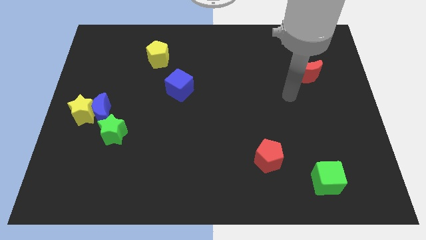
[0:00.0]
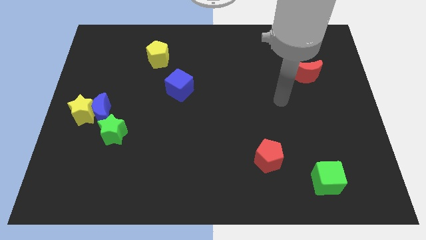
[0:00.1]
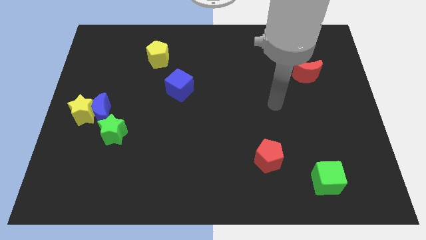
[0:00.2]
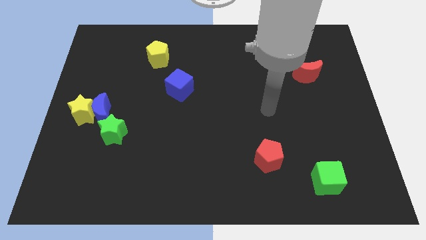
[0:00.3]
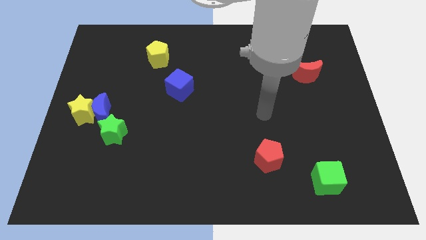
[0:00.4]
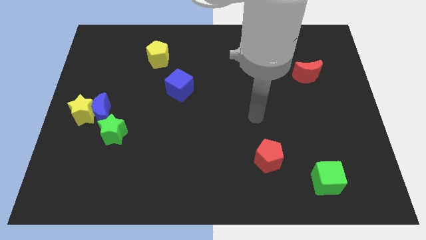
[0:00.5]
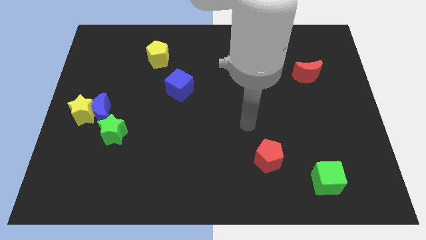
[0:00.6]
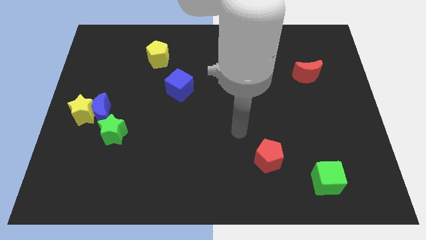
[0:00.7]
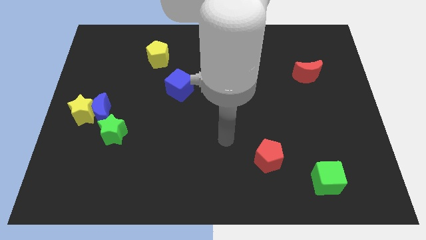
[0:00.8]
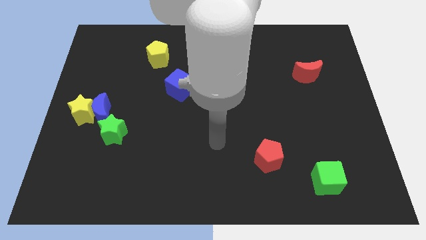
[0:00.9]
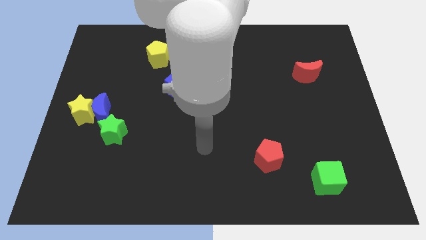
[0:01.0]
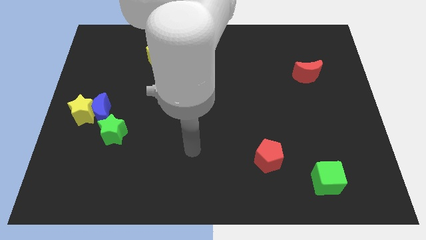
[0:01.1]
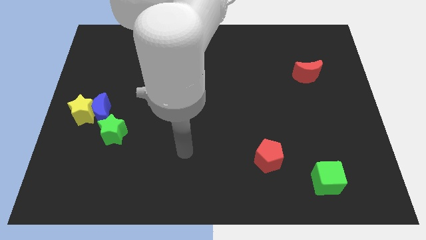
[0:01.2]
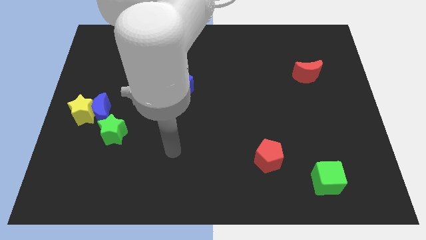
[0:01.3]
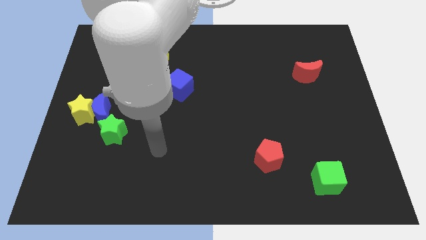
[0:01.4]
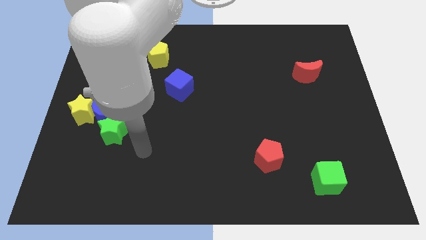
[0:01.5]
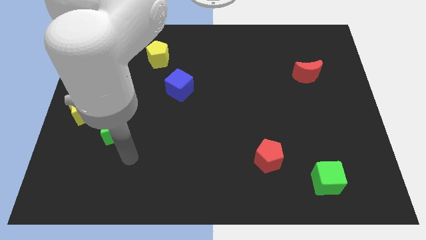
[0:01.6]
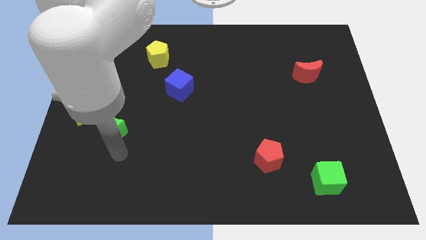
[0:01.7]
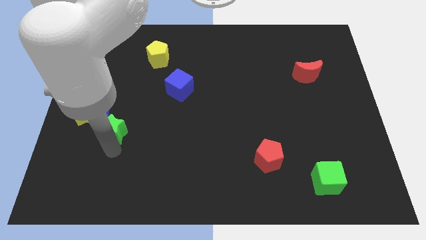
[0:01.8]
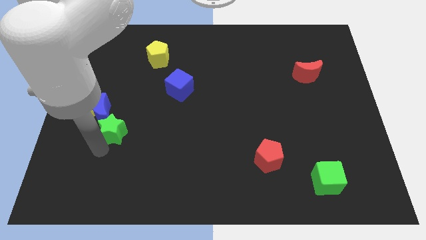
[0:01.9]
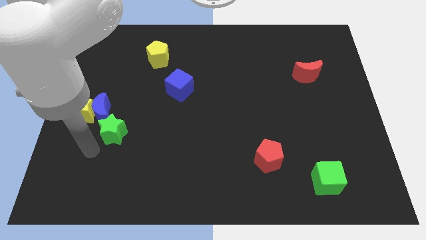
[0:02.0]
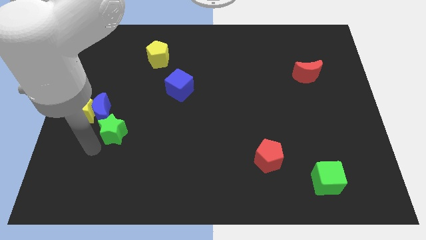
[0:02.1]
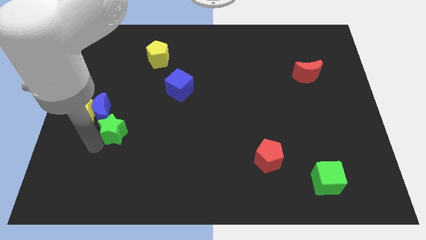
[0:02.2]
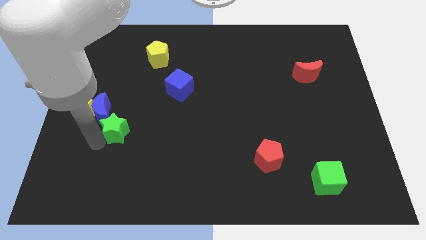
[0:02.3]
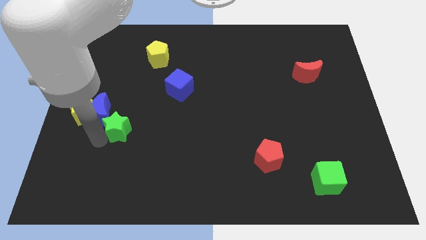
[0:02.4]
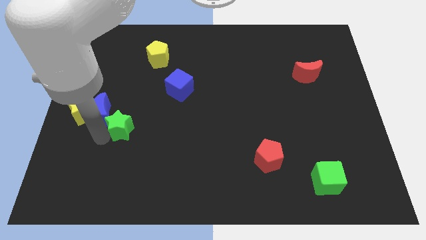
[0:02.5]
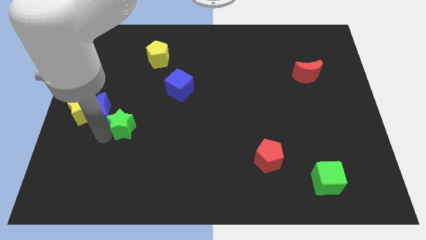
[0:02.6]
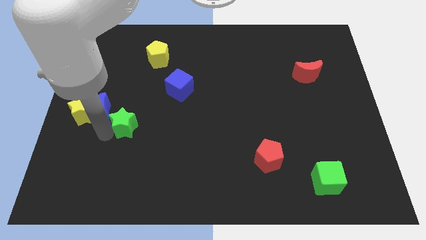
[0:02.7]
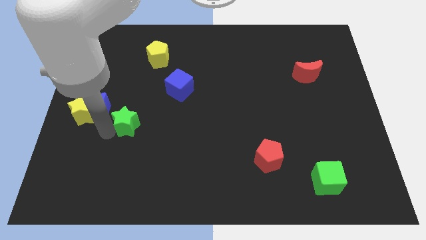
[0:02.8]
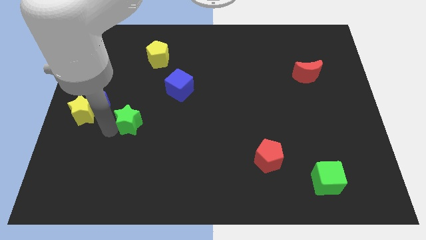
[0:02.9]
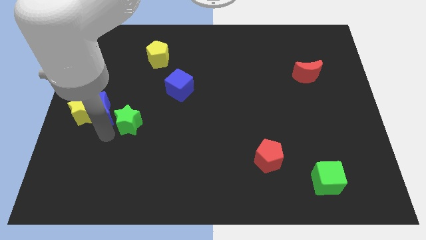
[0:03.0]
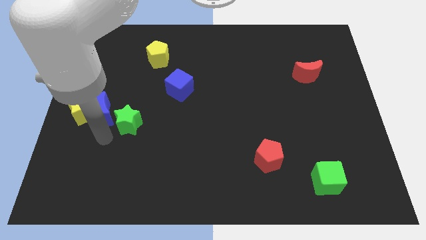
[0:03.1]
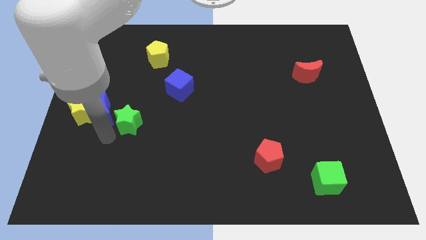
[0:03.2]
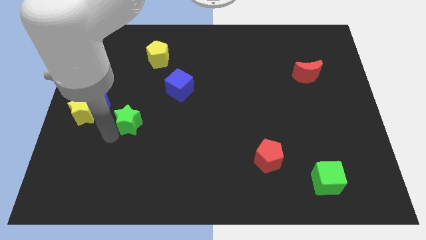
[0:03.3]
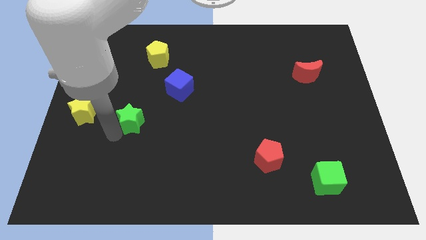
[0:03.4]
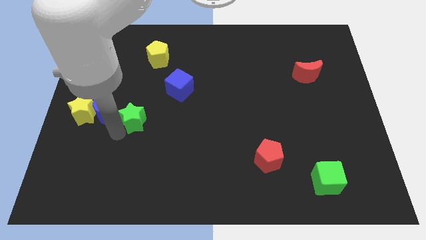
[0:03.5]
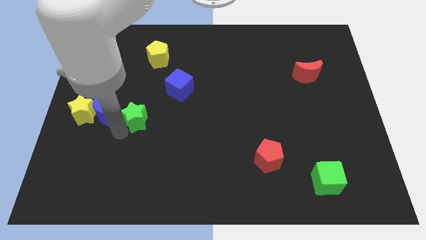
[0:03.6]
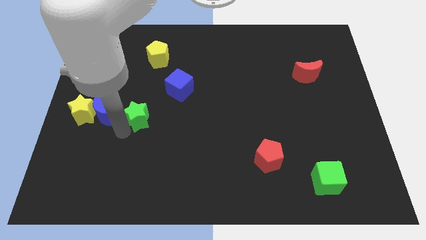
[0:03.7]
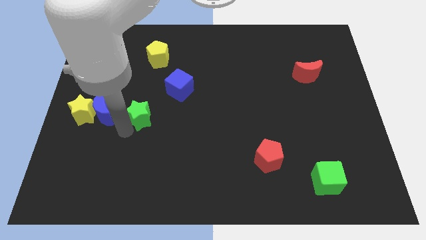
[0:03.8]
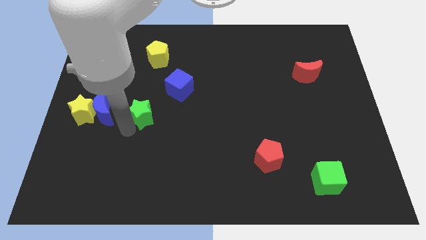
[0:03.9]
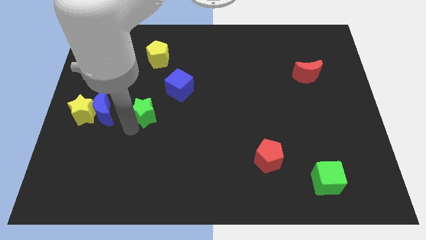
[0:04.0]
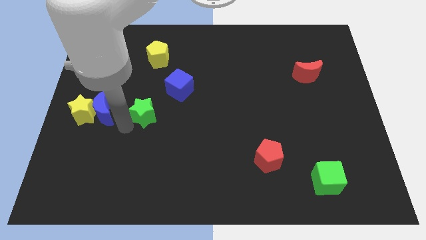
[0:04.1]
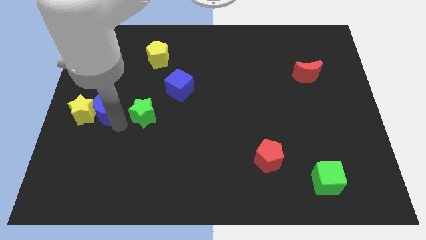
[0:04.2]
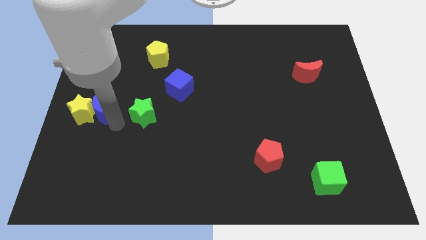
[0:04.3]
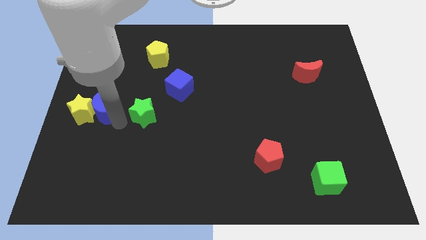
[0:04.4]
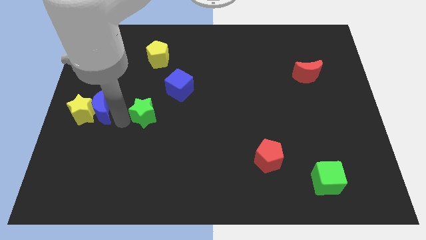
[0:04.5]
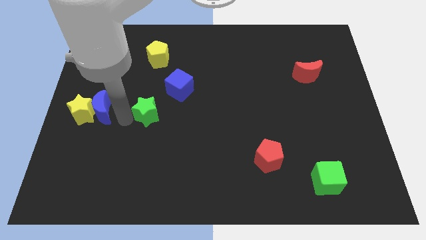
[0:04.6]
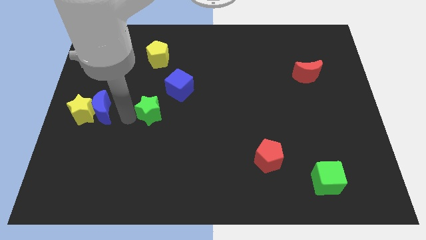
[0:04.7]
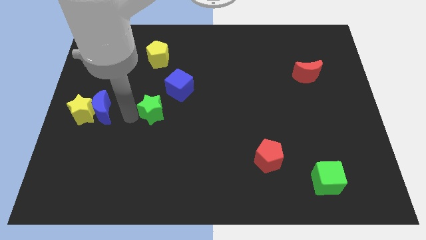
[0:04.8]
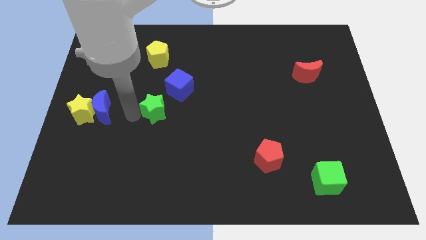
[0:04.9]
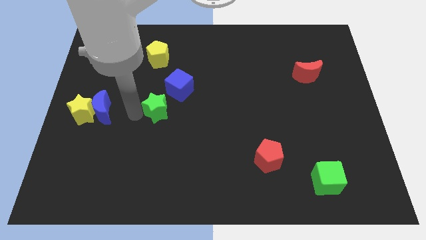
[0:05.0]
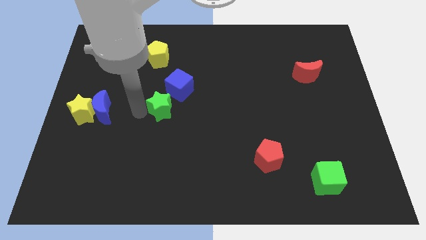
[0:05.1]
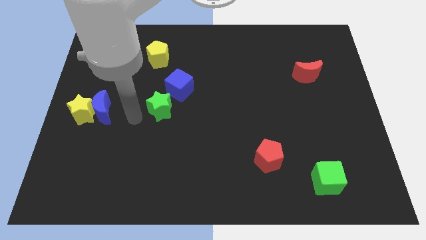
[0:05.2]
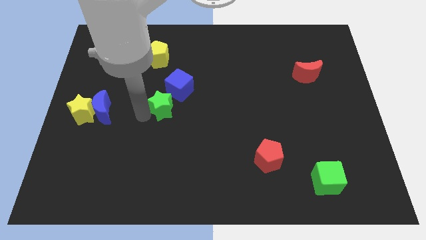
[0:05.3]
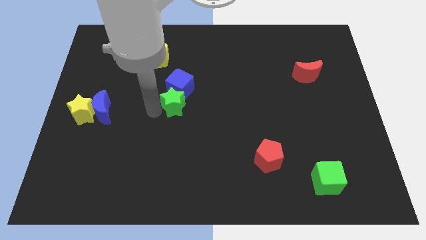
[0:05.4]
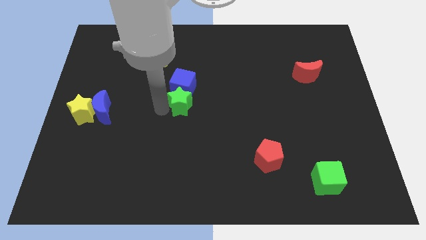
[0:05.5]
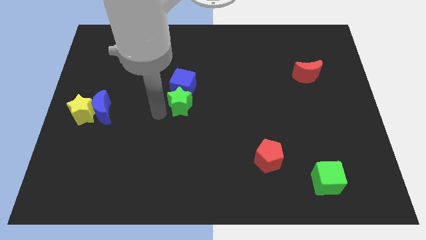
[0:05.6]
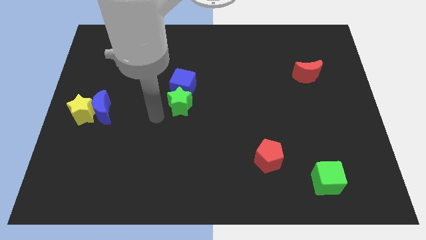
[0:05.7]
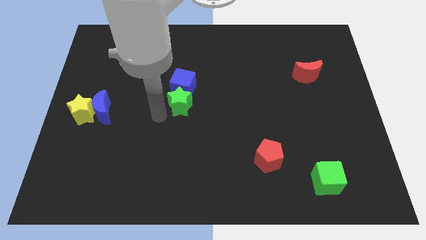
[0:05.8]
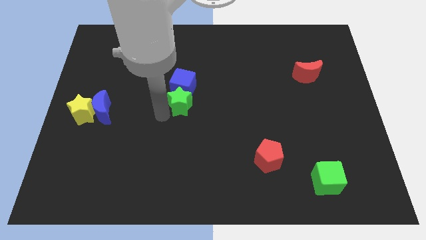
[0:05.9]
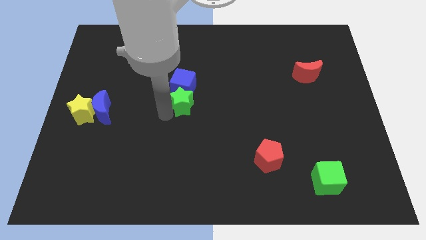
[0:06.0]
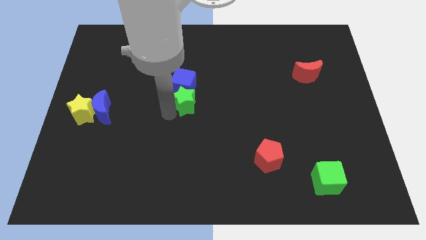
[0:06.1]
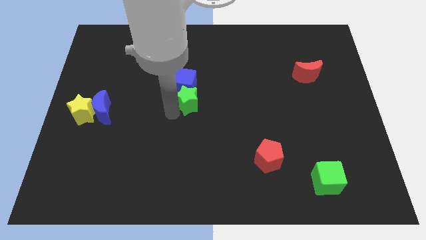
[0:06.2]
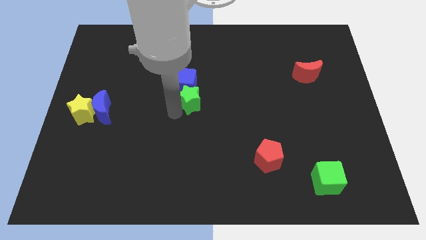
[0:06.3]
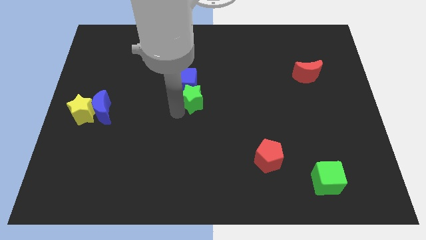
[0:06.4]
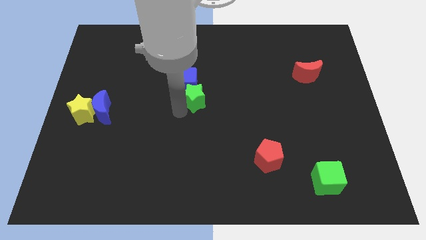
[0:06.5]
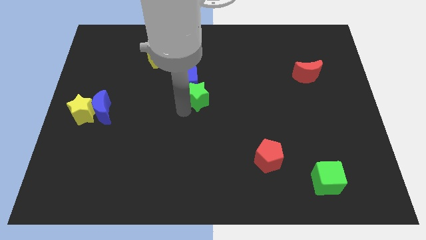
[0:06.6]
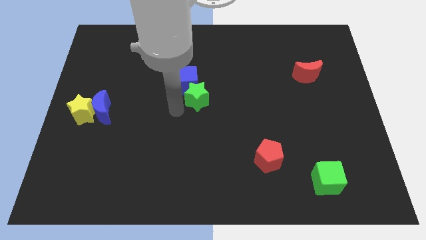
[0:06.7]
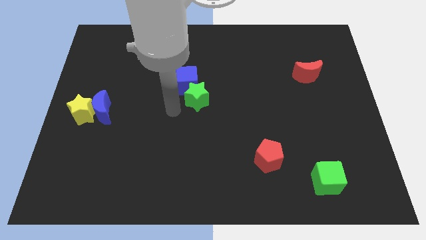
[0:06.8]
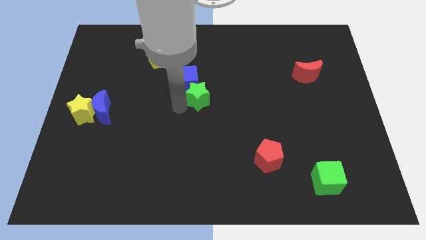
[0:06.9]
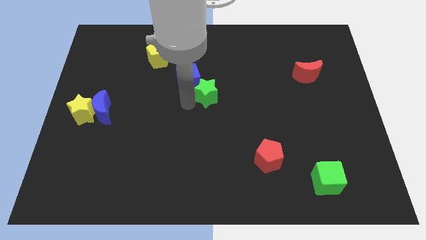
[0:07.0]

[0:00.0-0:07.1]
push the green star right of the blue cube
